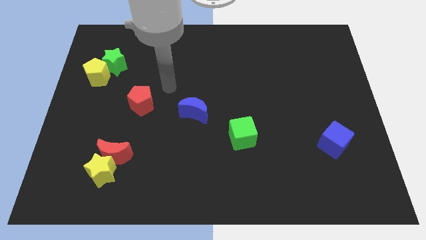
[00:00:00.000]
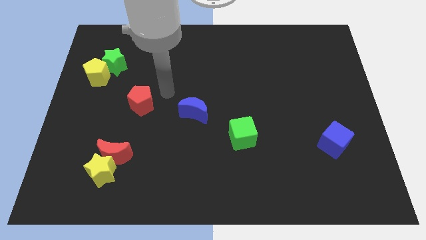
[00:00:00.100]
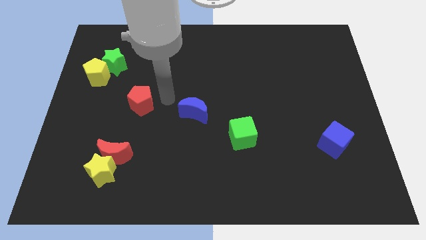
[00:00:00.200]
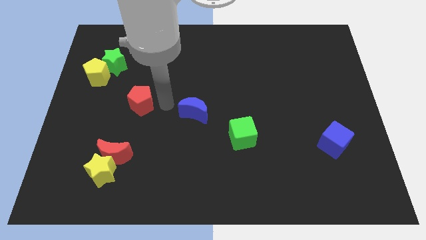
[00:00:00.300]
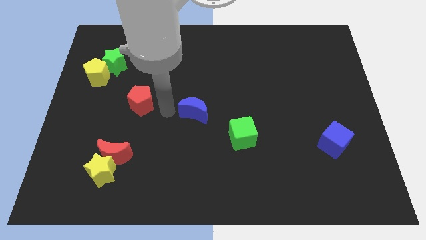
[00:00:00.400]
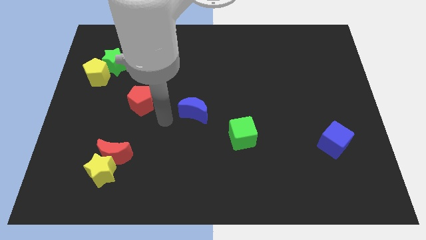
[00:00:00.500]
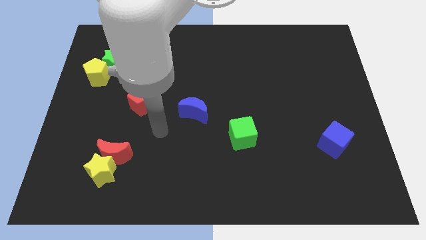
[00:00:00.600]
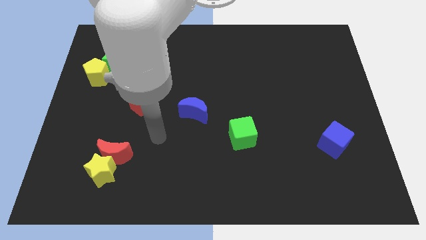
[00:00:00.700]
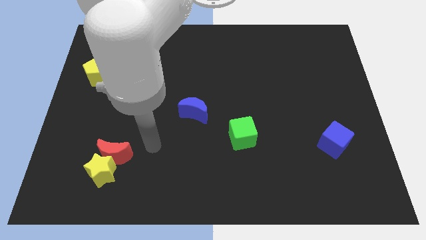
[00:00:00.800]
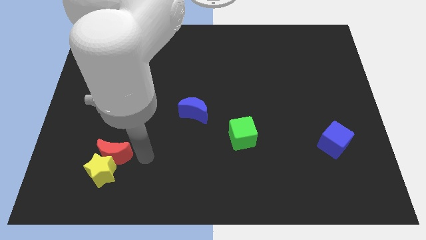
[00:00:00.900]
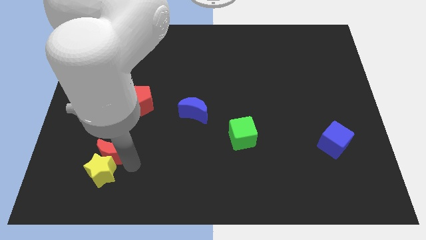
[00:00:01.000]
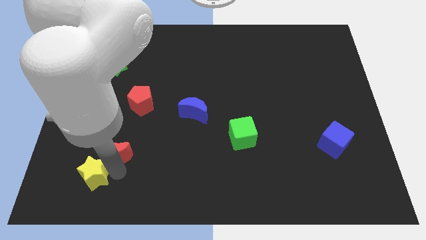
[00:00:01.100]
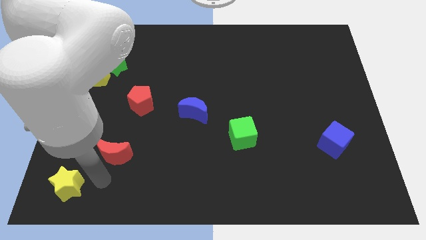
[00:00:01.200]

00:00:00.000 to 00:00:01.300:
move the red moon away from the yellow star

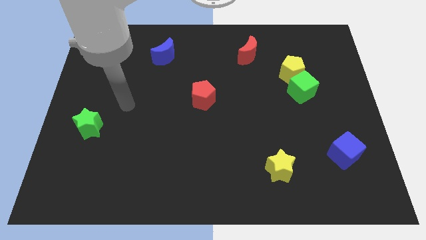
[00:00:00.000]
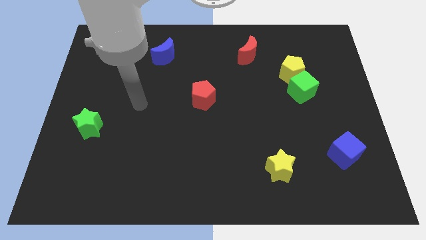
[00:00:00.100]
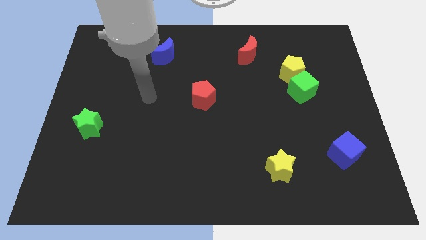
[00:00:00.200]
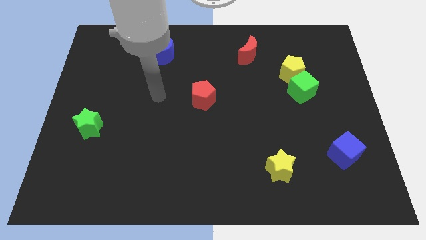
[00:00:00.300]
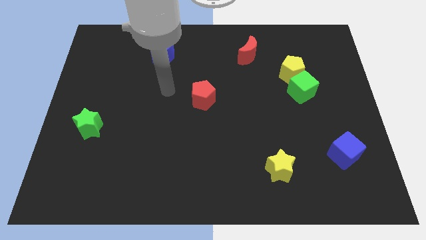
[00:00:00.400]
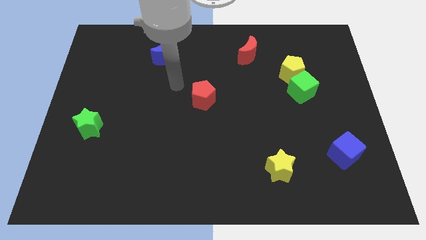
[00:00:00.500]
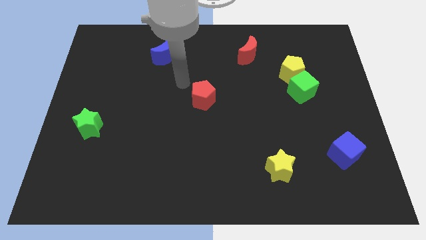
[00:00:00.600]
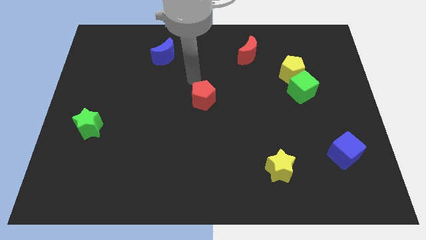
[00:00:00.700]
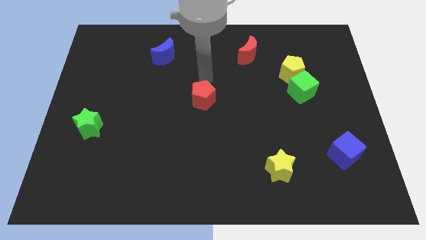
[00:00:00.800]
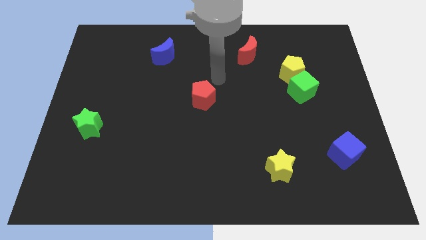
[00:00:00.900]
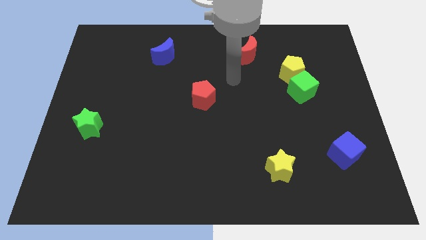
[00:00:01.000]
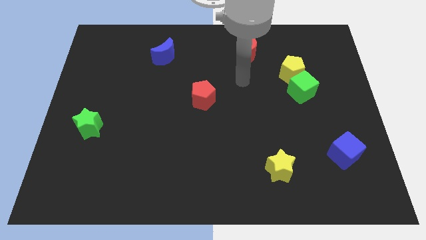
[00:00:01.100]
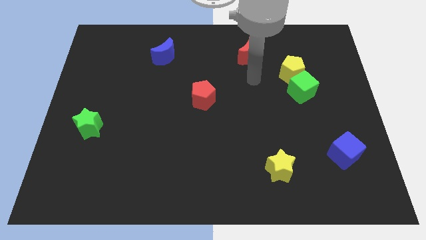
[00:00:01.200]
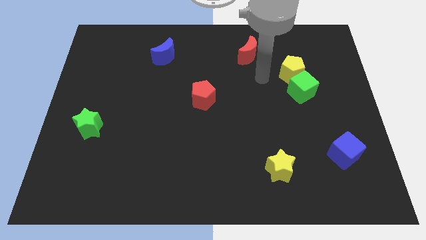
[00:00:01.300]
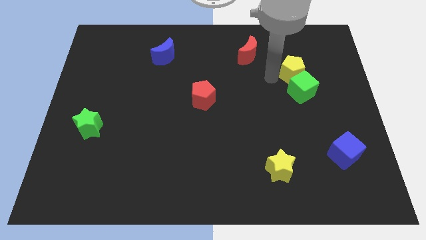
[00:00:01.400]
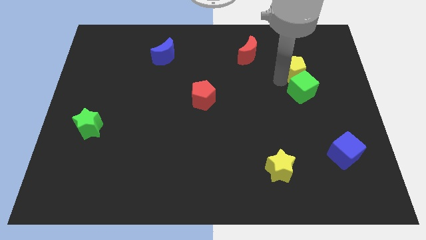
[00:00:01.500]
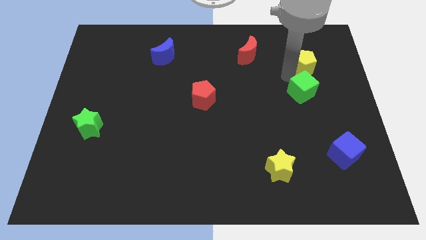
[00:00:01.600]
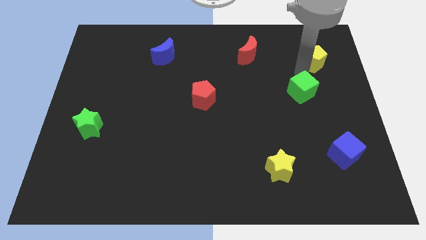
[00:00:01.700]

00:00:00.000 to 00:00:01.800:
pull the green cube apart from the yellow pentagon

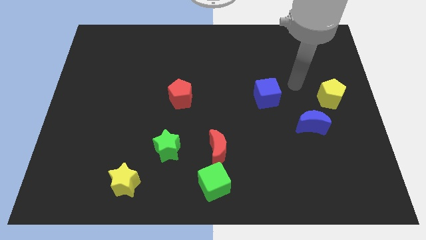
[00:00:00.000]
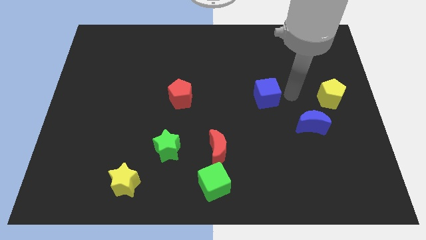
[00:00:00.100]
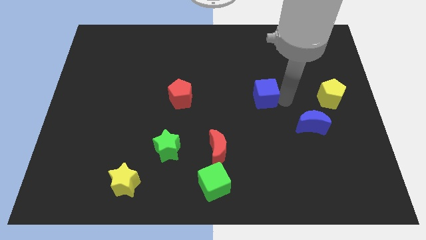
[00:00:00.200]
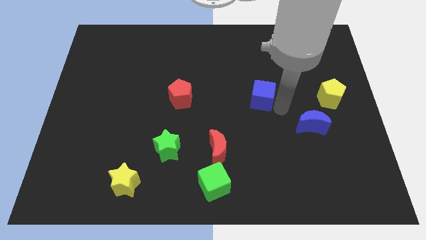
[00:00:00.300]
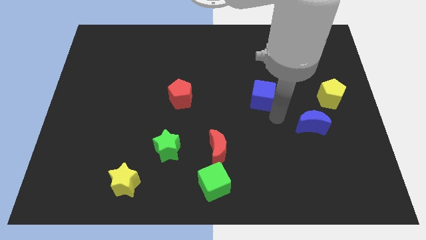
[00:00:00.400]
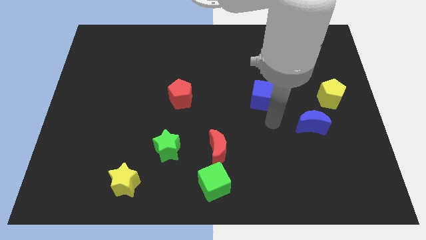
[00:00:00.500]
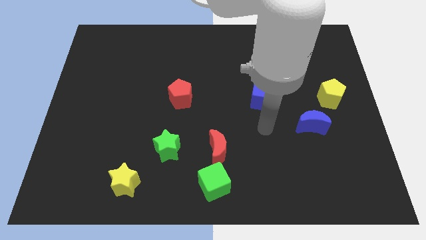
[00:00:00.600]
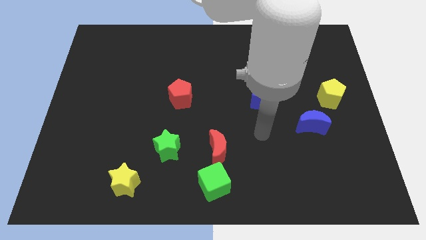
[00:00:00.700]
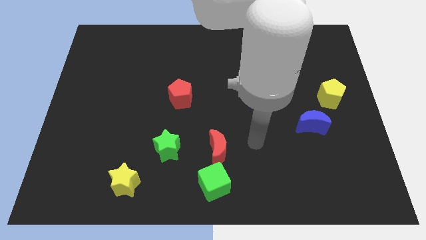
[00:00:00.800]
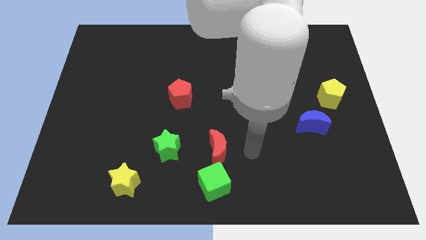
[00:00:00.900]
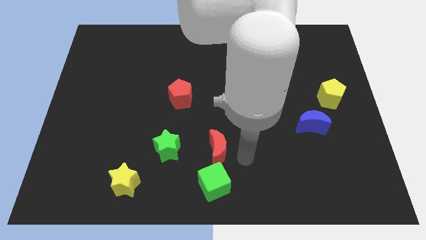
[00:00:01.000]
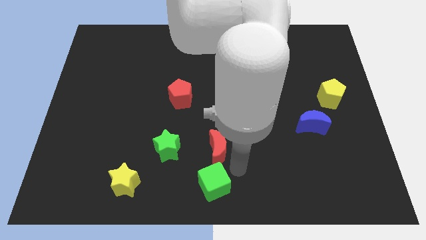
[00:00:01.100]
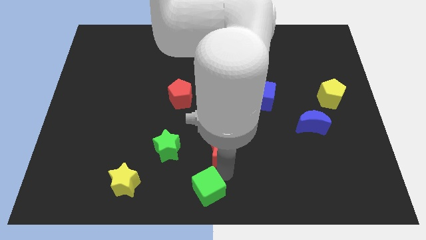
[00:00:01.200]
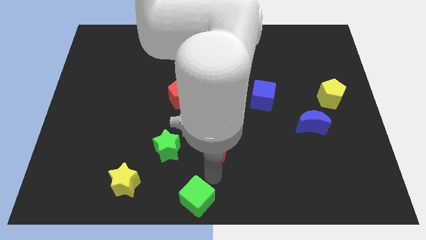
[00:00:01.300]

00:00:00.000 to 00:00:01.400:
move the red moon away from the green cube

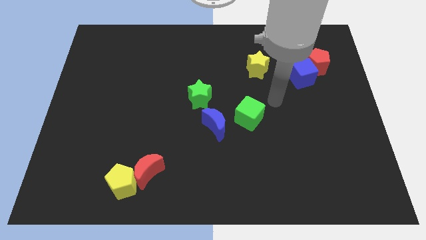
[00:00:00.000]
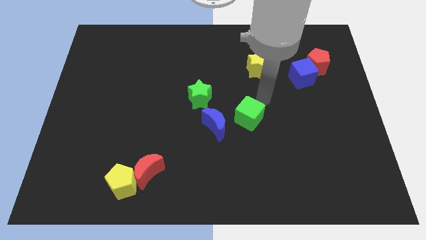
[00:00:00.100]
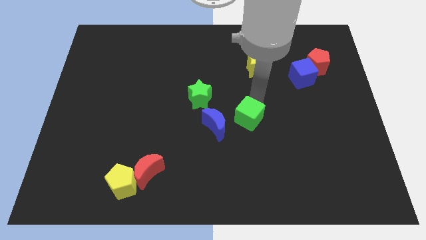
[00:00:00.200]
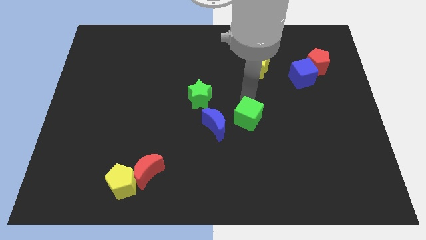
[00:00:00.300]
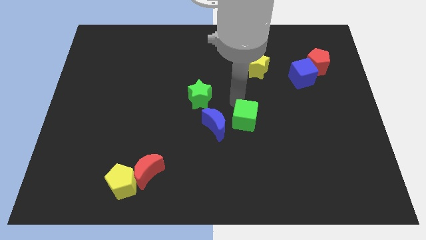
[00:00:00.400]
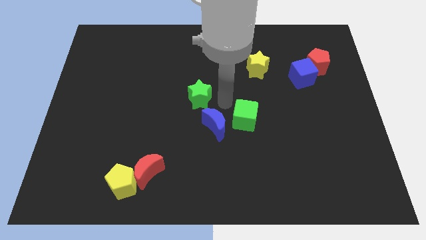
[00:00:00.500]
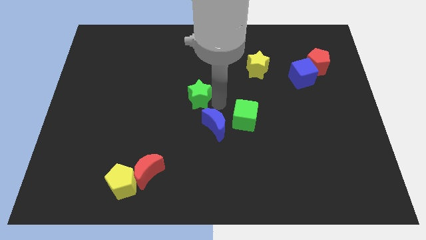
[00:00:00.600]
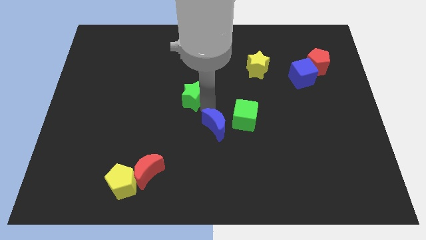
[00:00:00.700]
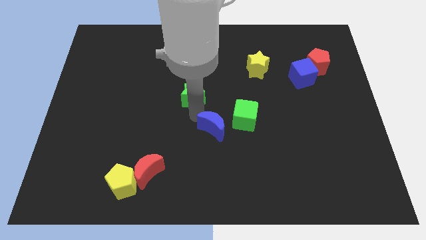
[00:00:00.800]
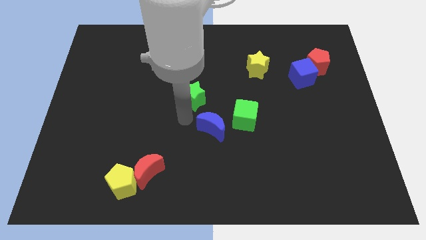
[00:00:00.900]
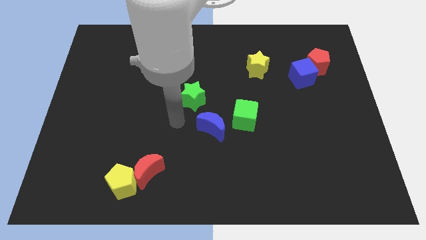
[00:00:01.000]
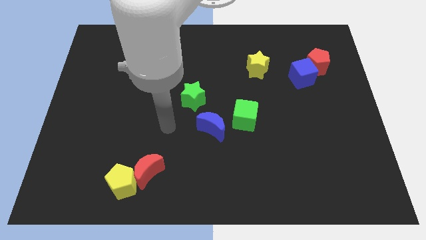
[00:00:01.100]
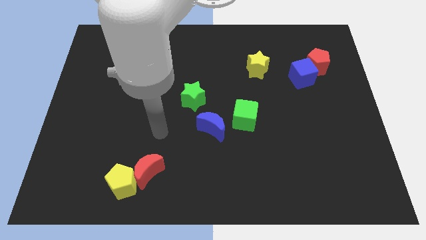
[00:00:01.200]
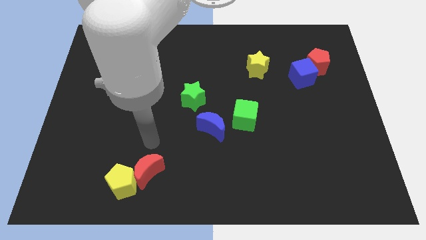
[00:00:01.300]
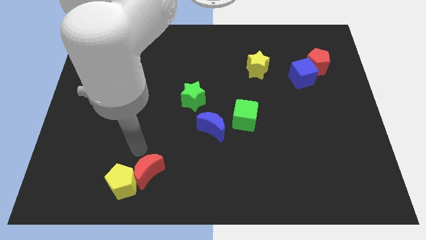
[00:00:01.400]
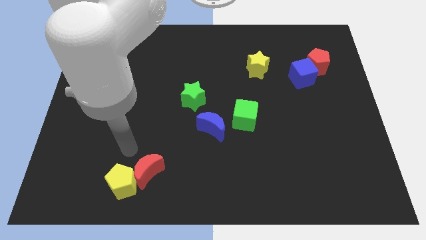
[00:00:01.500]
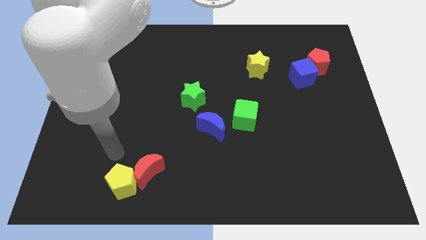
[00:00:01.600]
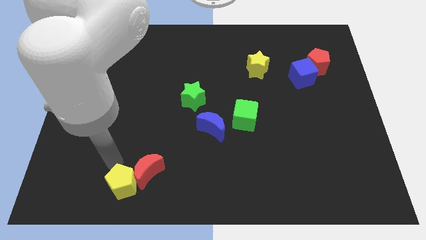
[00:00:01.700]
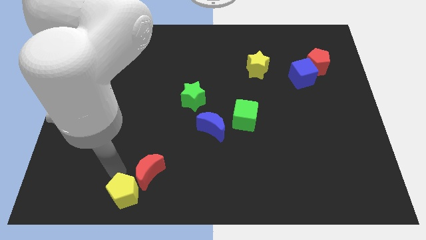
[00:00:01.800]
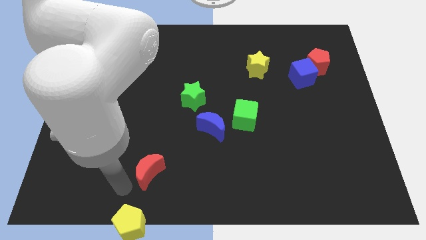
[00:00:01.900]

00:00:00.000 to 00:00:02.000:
pull the red moon apart from the yellow pentagon

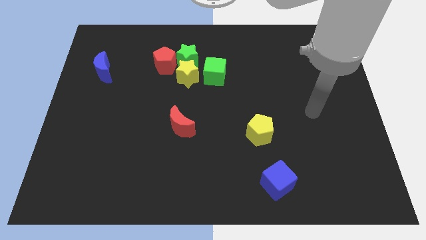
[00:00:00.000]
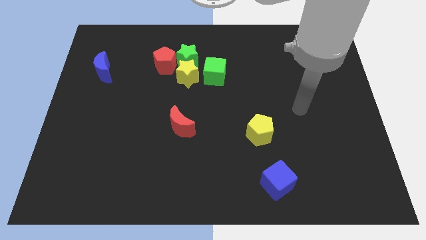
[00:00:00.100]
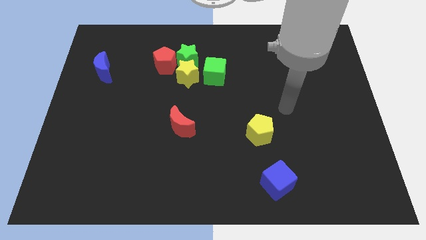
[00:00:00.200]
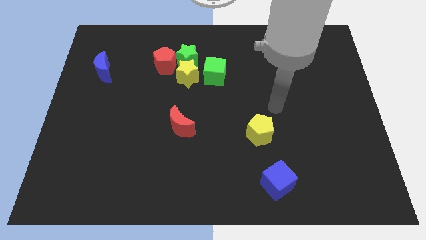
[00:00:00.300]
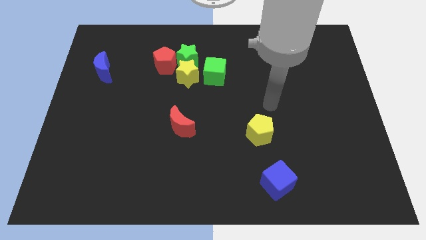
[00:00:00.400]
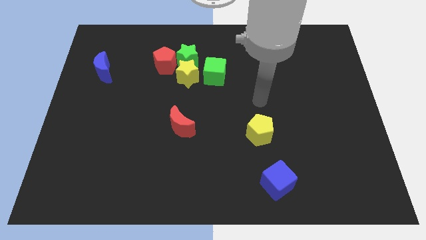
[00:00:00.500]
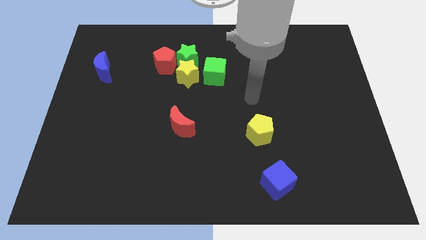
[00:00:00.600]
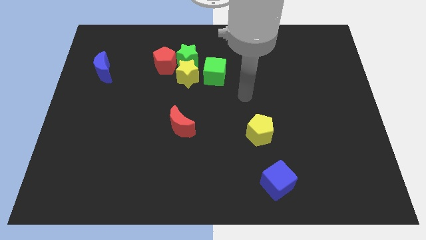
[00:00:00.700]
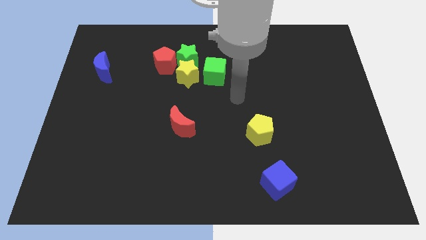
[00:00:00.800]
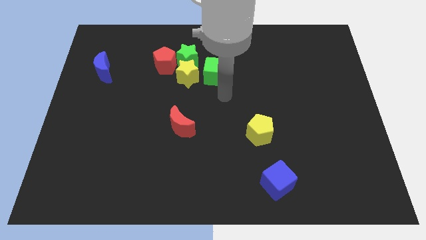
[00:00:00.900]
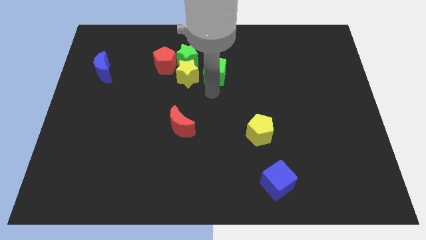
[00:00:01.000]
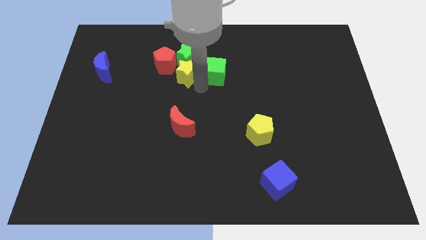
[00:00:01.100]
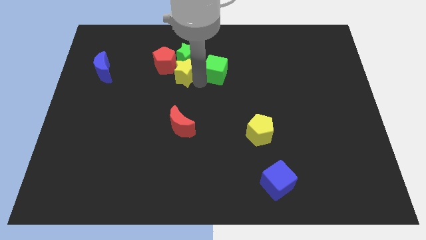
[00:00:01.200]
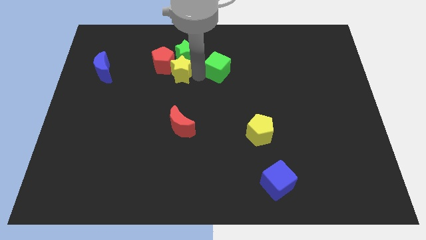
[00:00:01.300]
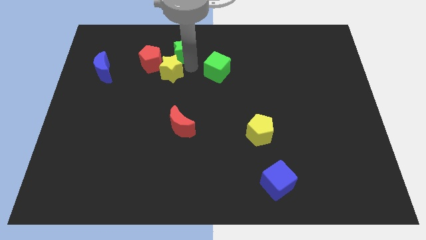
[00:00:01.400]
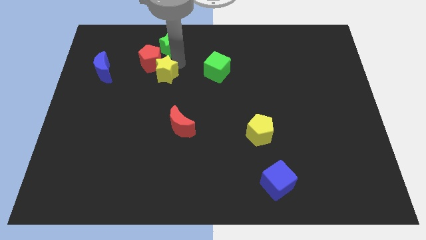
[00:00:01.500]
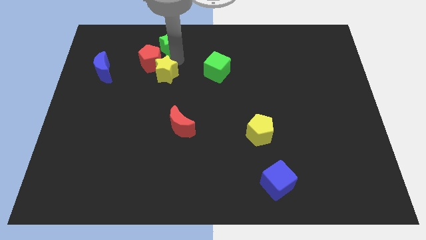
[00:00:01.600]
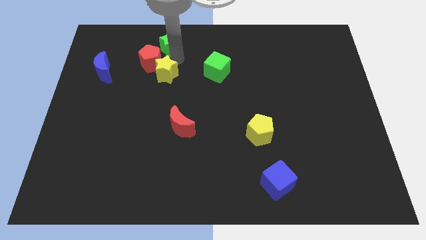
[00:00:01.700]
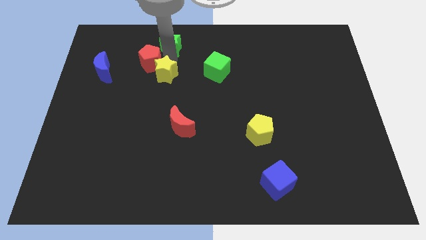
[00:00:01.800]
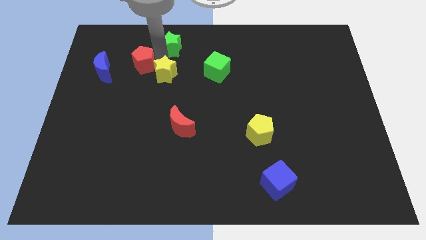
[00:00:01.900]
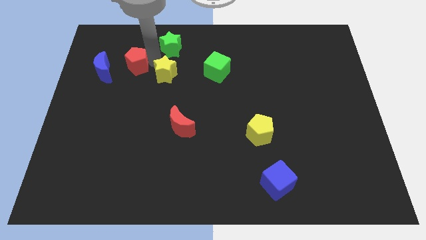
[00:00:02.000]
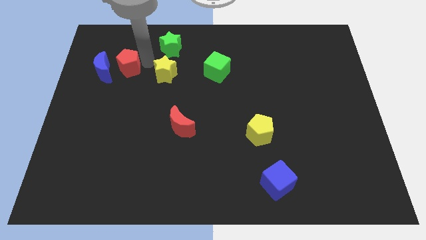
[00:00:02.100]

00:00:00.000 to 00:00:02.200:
move the red pentagon away from the green star and yellow star

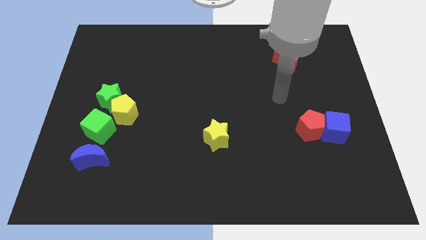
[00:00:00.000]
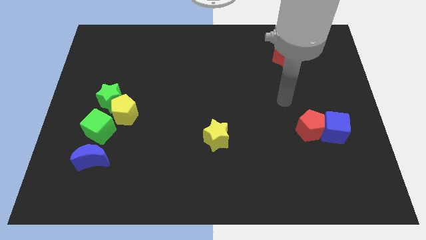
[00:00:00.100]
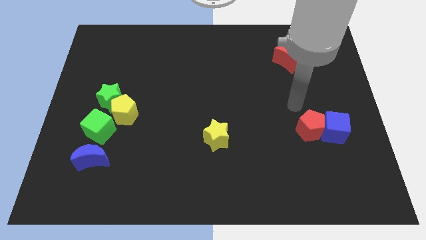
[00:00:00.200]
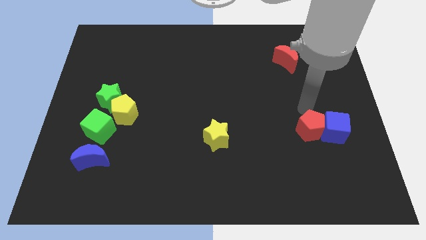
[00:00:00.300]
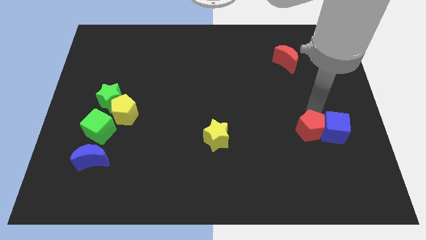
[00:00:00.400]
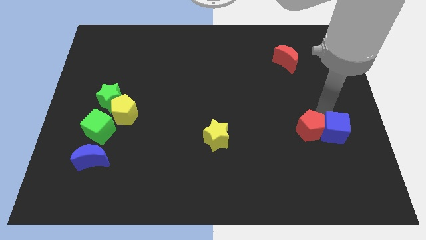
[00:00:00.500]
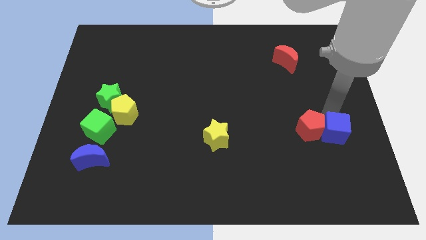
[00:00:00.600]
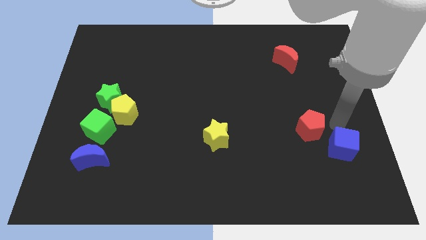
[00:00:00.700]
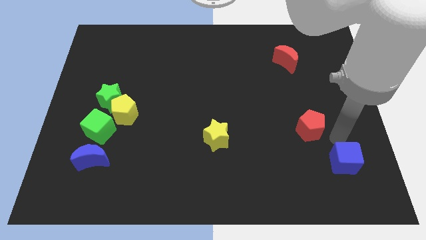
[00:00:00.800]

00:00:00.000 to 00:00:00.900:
separate the red pentagon from the blue cube
